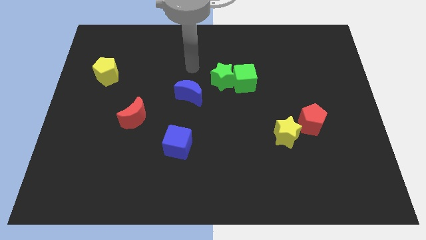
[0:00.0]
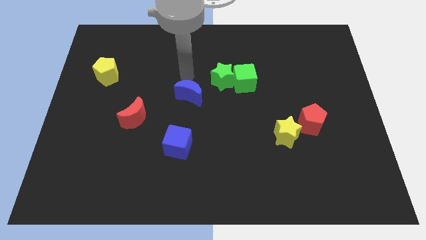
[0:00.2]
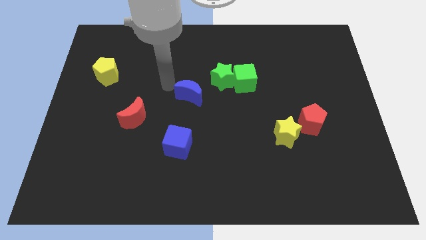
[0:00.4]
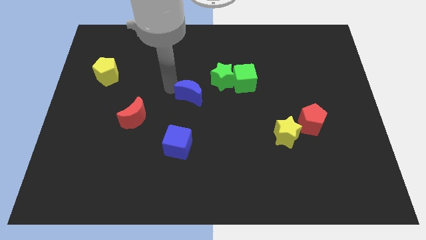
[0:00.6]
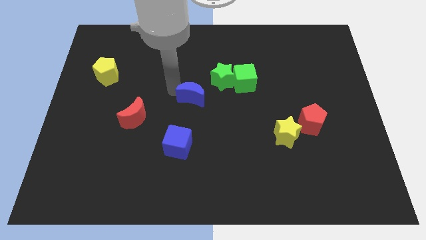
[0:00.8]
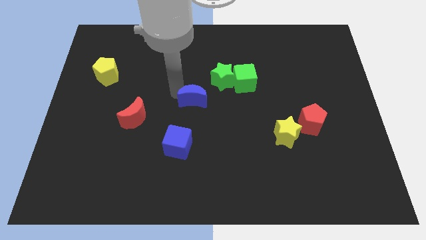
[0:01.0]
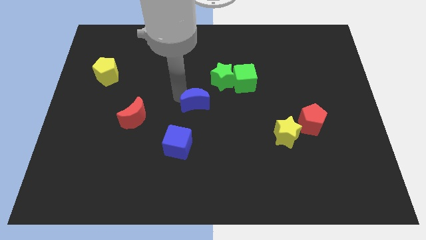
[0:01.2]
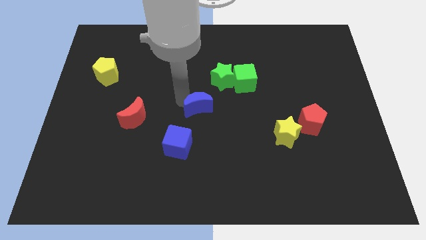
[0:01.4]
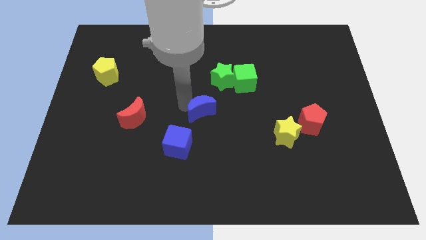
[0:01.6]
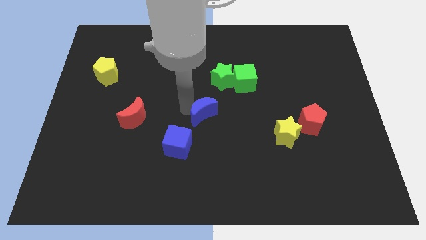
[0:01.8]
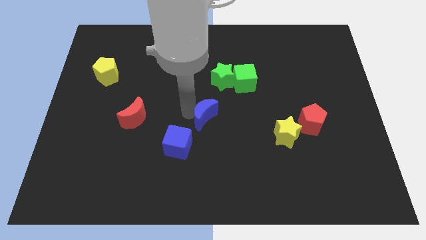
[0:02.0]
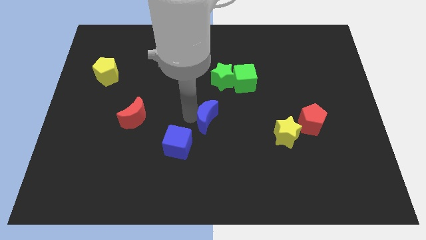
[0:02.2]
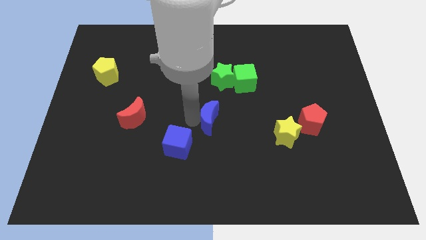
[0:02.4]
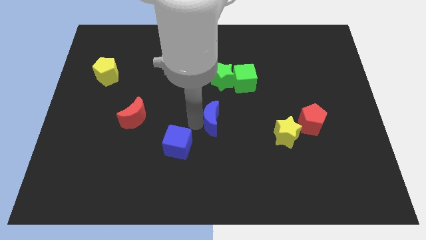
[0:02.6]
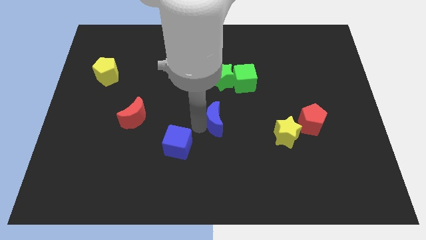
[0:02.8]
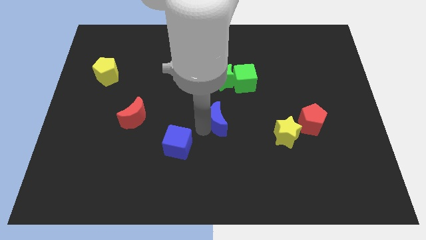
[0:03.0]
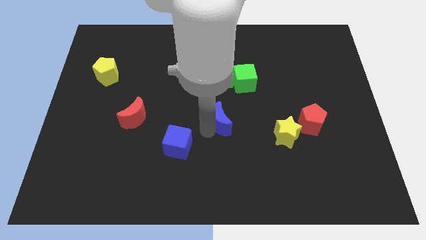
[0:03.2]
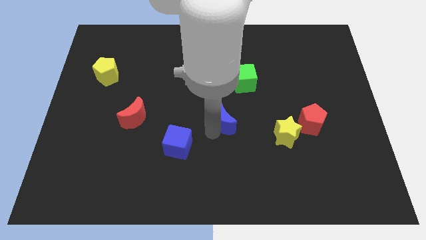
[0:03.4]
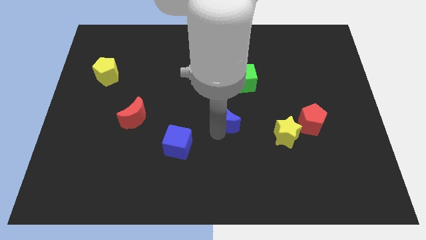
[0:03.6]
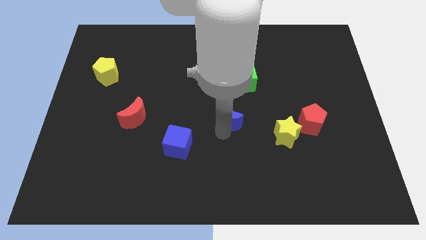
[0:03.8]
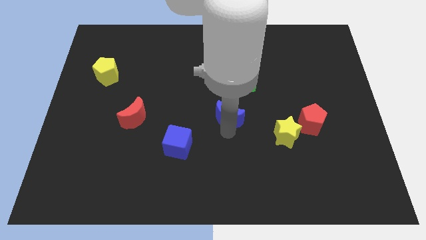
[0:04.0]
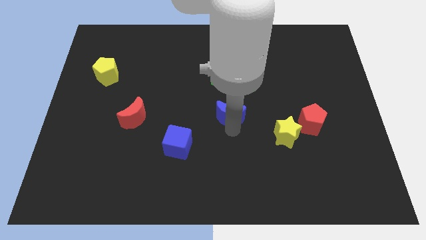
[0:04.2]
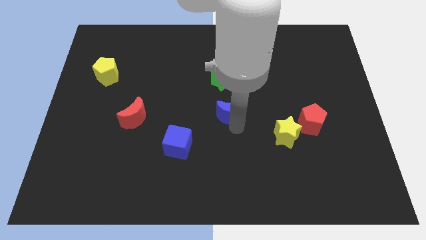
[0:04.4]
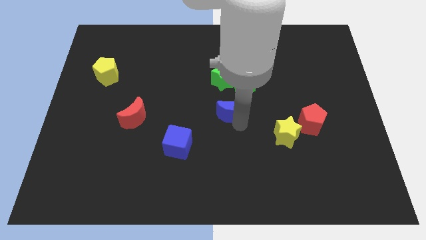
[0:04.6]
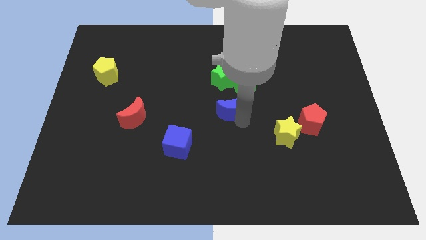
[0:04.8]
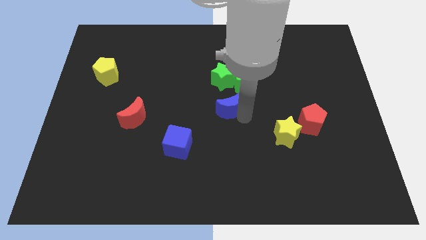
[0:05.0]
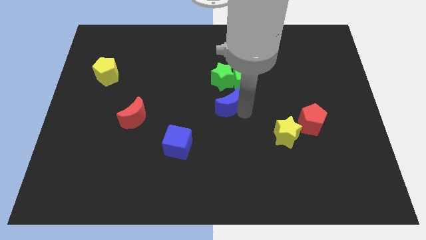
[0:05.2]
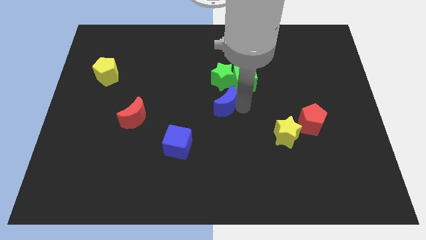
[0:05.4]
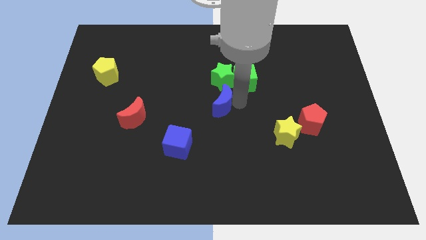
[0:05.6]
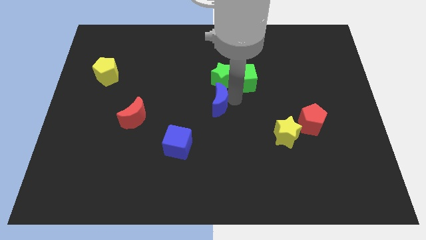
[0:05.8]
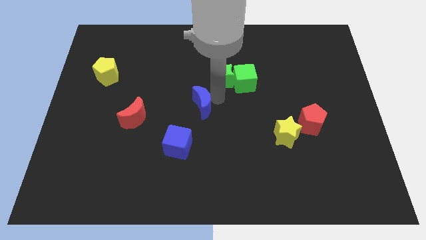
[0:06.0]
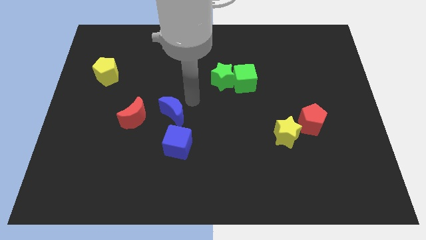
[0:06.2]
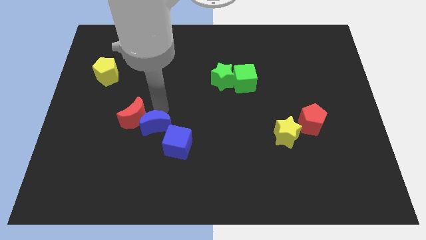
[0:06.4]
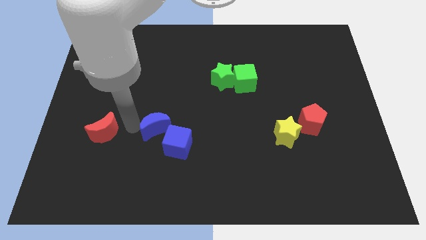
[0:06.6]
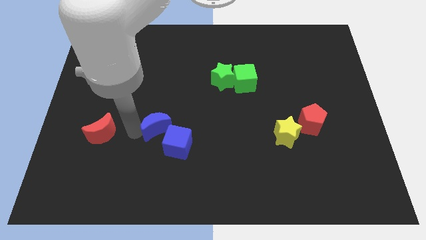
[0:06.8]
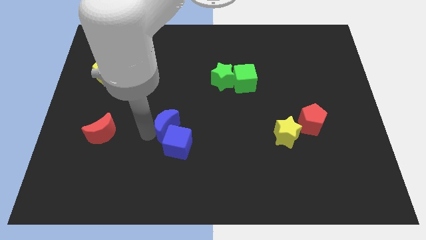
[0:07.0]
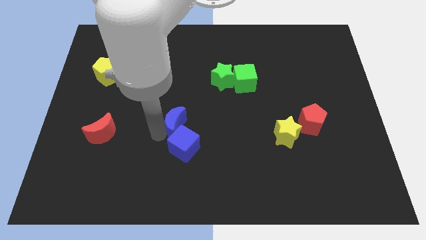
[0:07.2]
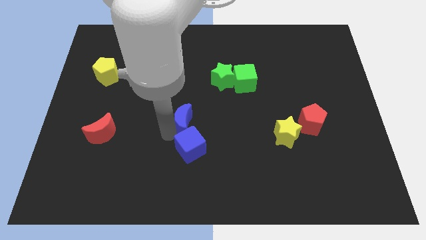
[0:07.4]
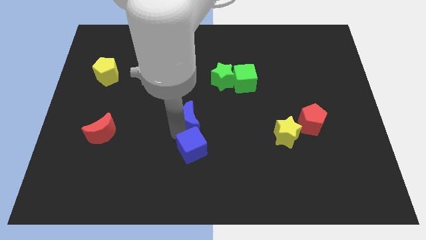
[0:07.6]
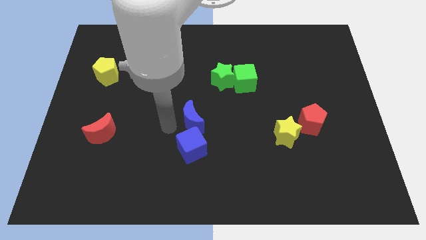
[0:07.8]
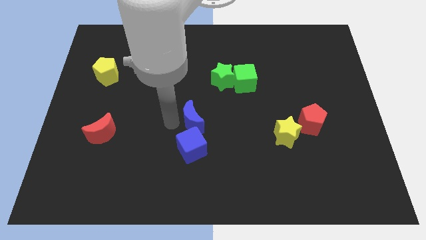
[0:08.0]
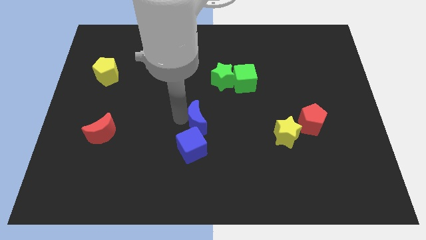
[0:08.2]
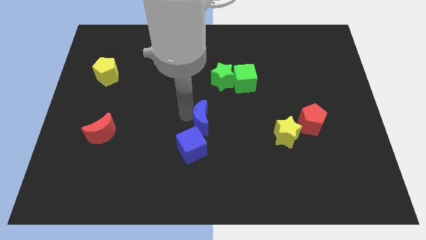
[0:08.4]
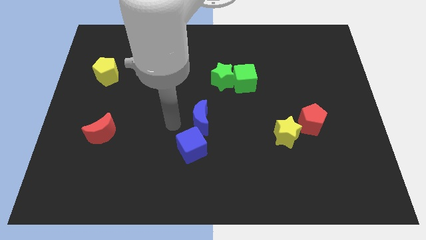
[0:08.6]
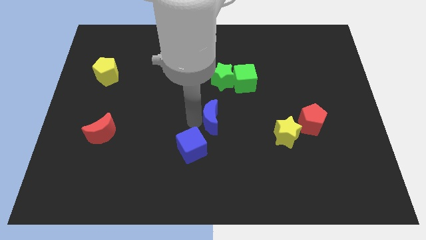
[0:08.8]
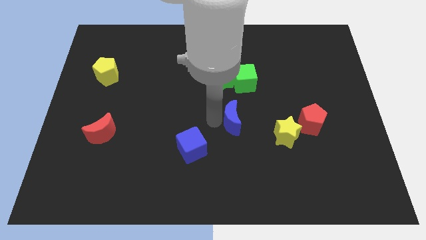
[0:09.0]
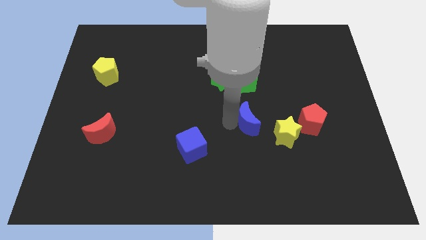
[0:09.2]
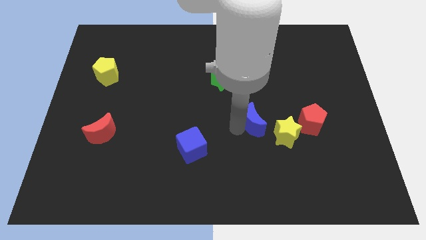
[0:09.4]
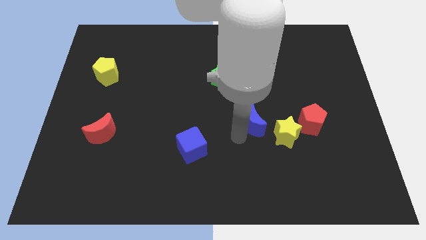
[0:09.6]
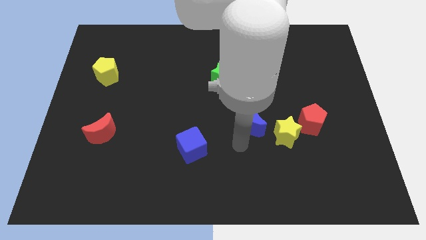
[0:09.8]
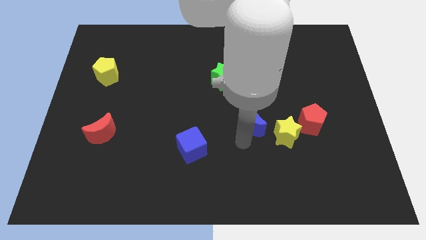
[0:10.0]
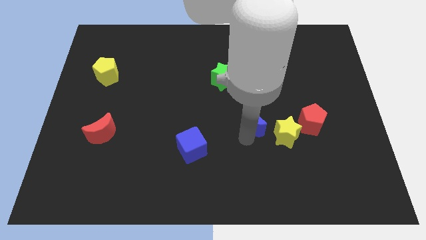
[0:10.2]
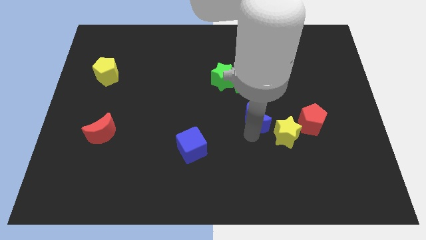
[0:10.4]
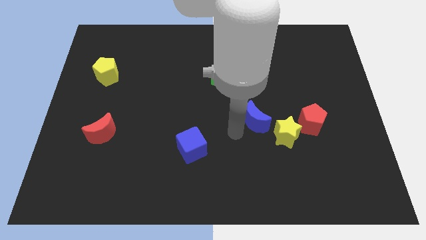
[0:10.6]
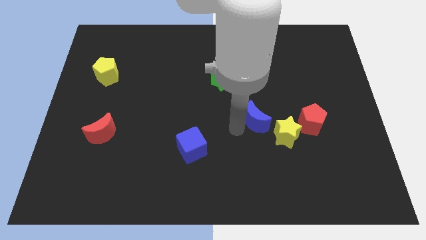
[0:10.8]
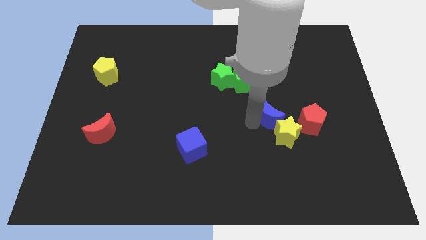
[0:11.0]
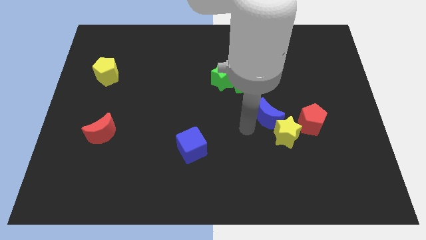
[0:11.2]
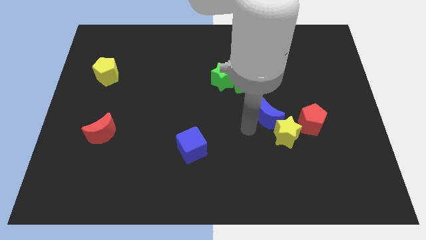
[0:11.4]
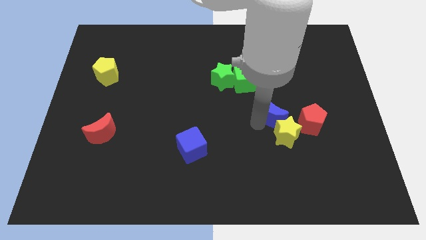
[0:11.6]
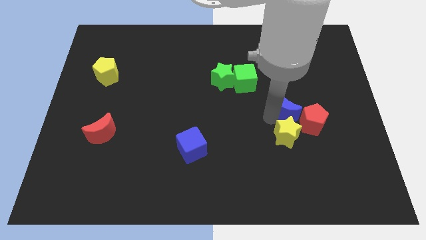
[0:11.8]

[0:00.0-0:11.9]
push the blue moon right

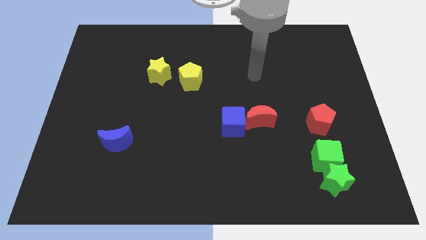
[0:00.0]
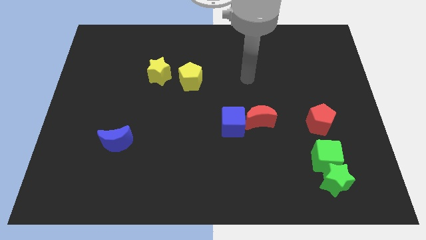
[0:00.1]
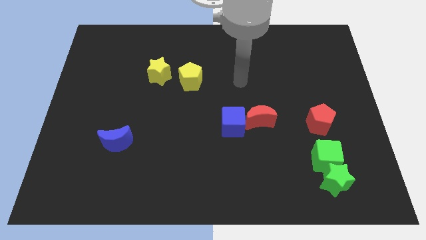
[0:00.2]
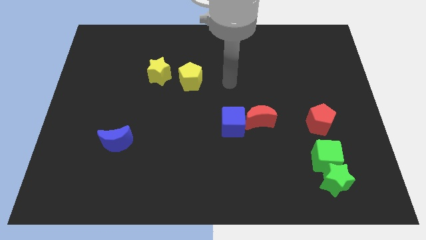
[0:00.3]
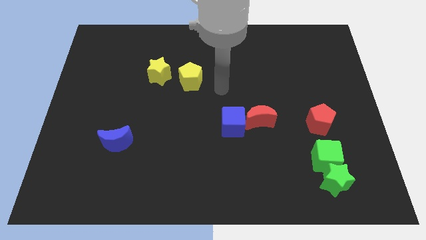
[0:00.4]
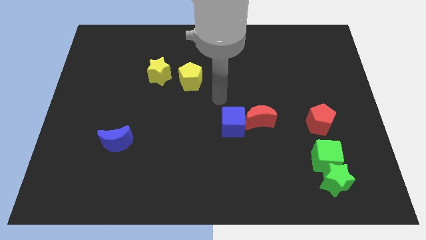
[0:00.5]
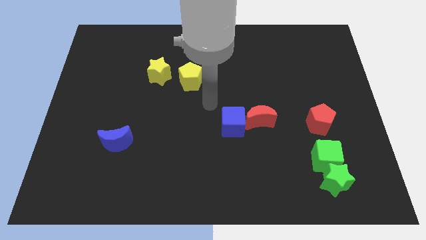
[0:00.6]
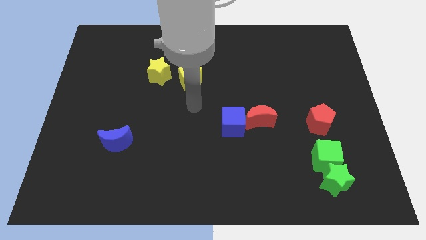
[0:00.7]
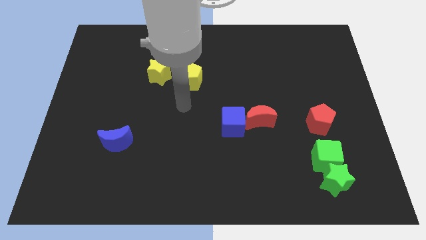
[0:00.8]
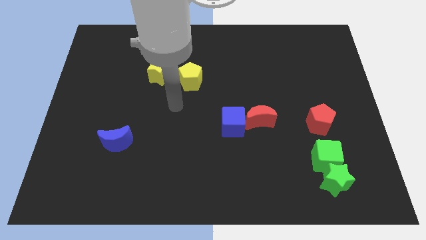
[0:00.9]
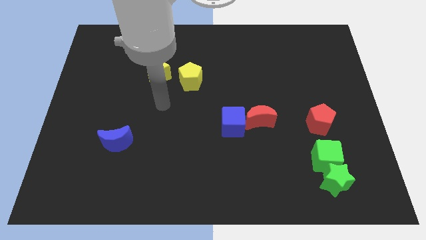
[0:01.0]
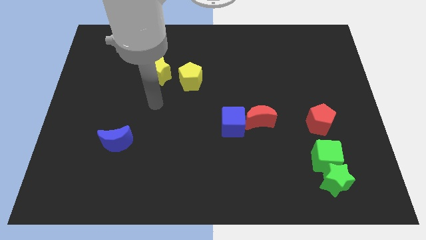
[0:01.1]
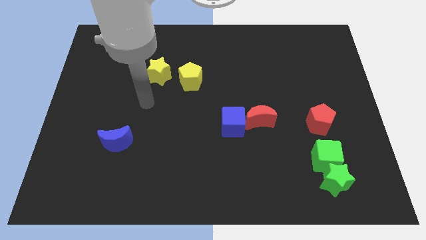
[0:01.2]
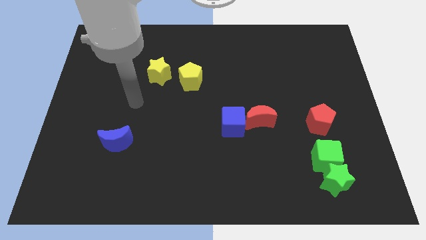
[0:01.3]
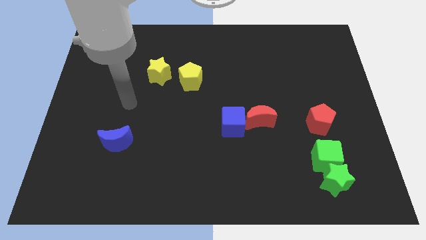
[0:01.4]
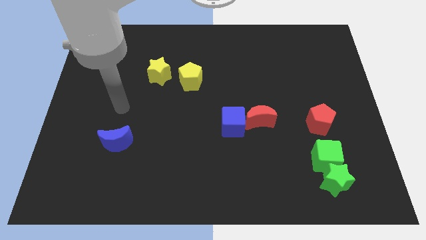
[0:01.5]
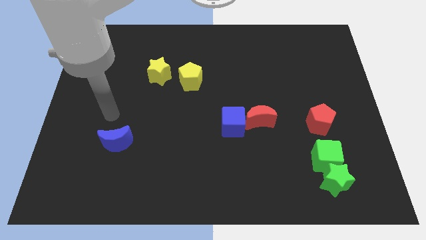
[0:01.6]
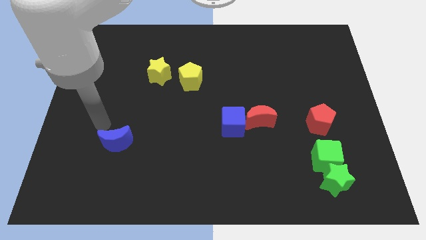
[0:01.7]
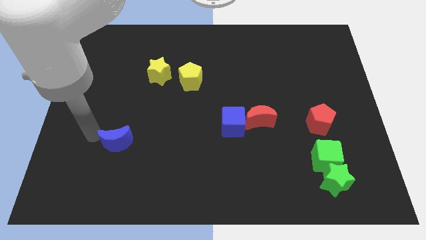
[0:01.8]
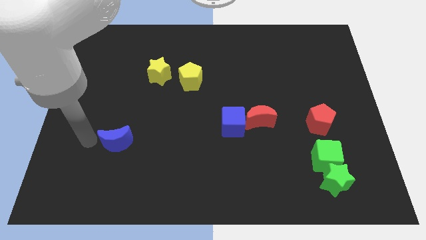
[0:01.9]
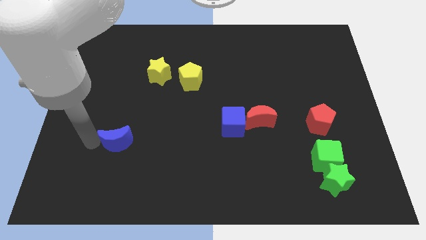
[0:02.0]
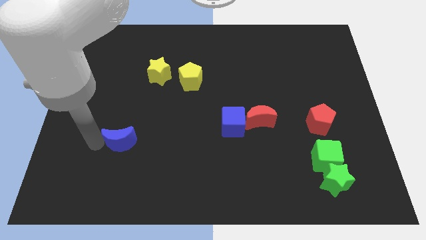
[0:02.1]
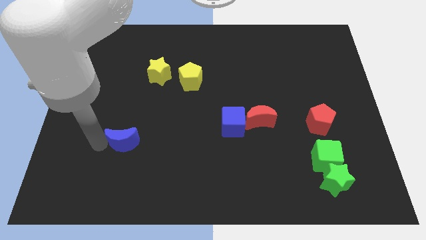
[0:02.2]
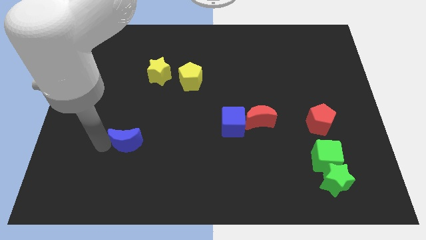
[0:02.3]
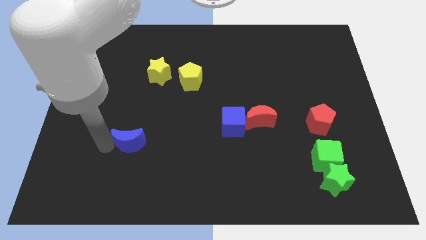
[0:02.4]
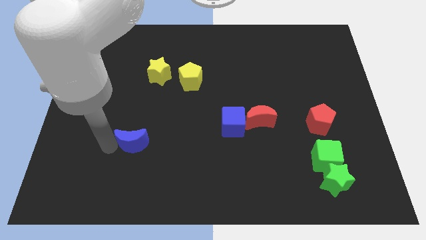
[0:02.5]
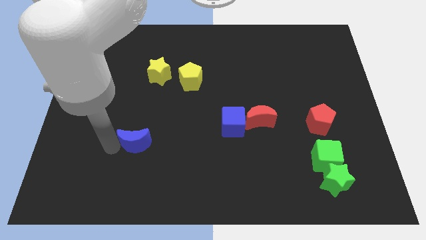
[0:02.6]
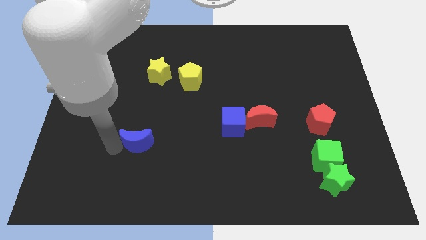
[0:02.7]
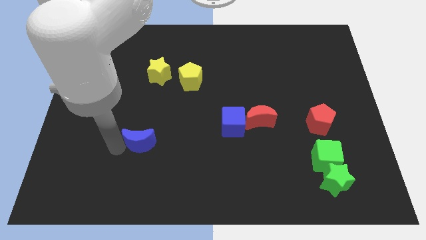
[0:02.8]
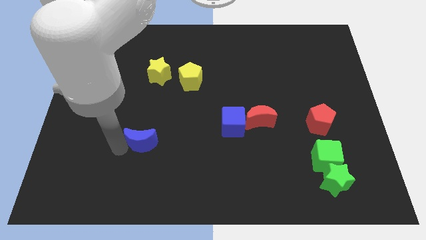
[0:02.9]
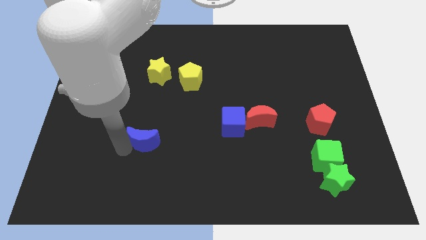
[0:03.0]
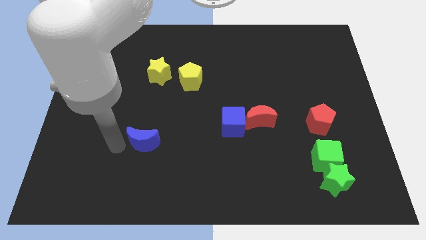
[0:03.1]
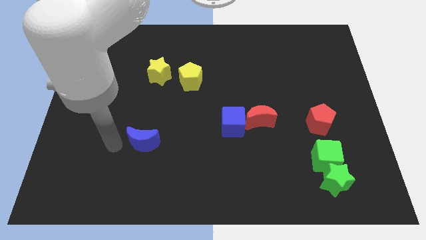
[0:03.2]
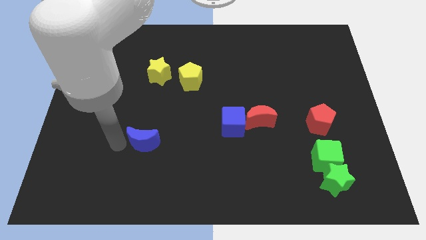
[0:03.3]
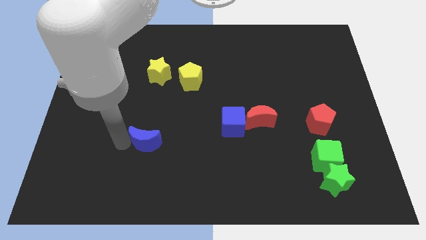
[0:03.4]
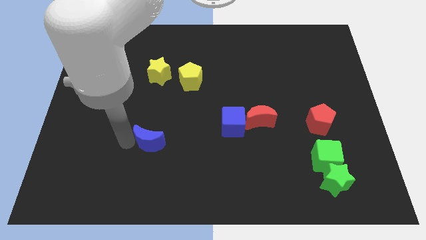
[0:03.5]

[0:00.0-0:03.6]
slightly push the blue moon to the right
